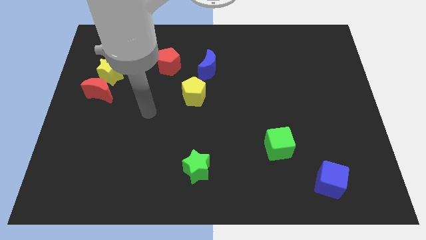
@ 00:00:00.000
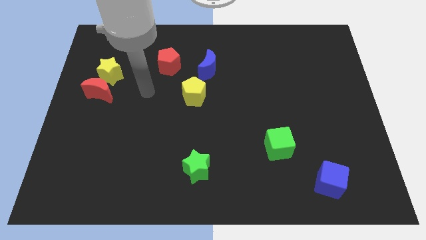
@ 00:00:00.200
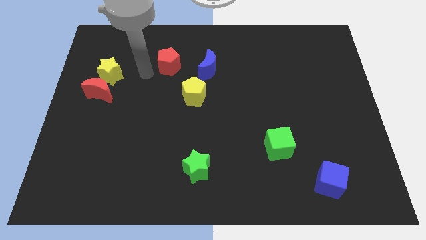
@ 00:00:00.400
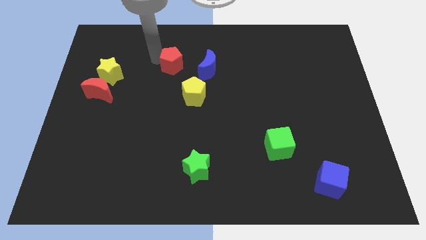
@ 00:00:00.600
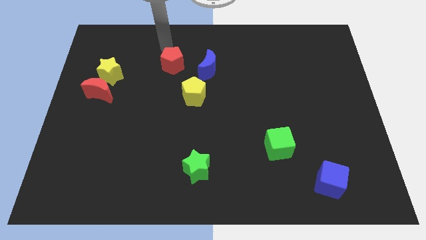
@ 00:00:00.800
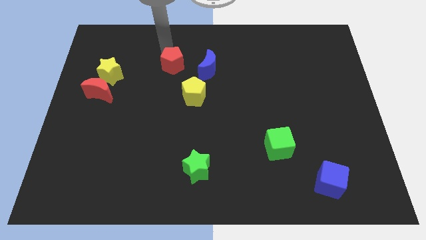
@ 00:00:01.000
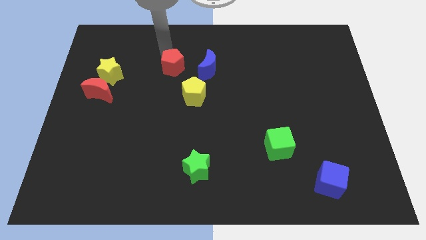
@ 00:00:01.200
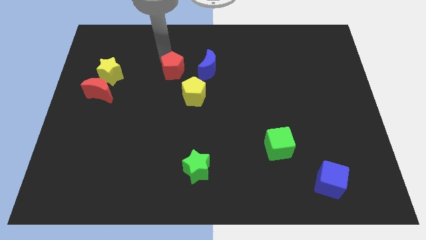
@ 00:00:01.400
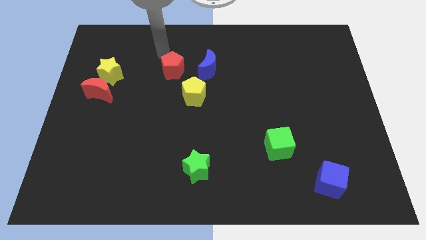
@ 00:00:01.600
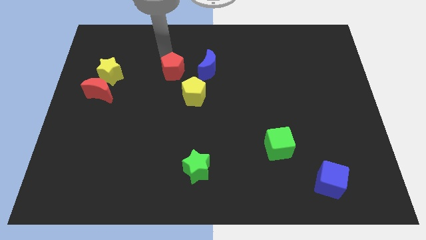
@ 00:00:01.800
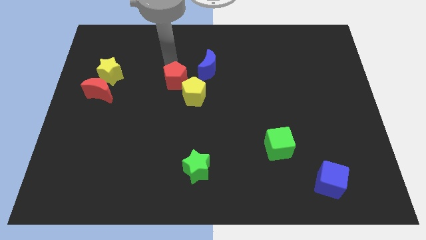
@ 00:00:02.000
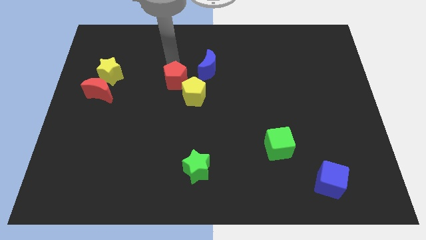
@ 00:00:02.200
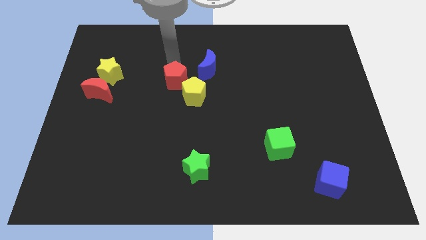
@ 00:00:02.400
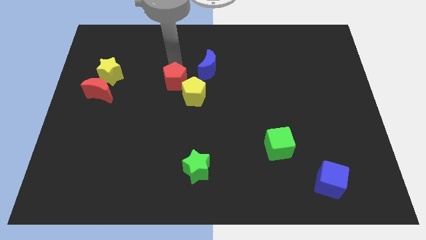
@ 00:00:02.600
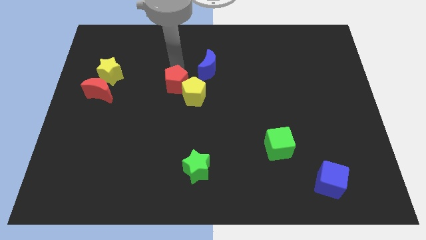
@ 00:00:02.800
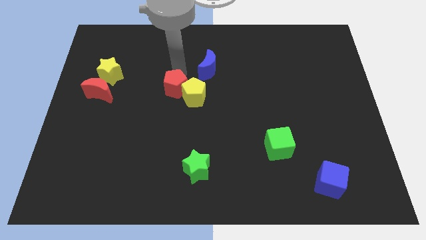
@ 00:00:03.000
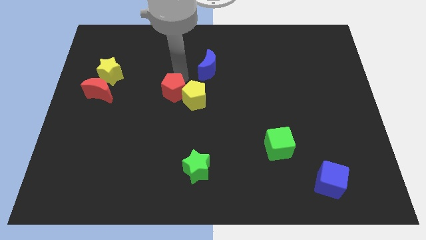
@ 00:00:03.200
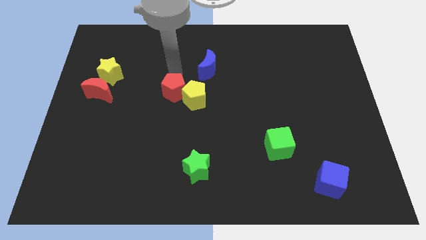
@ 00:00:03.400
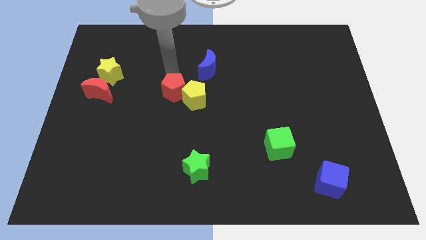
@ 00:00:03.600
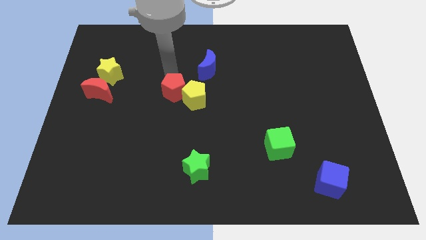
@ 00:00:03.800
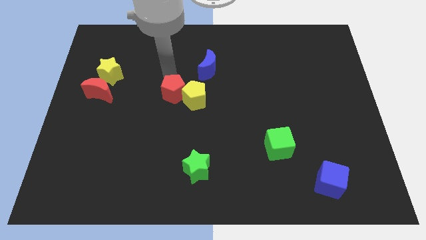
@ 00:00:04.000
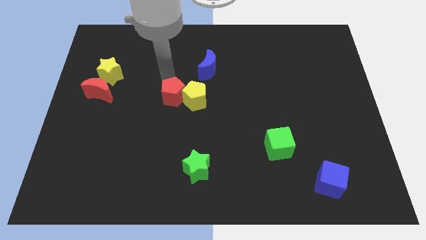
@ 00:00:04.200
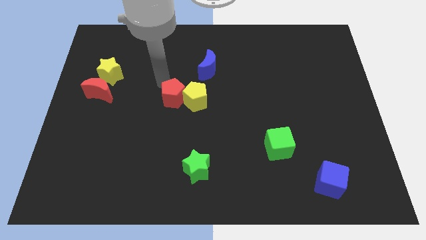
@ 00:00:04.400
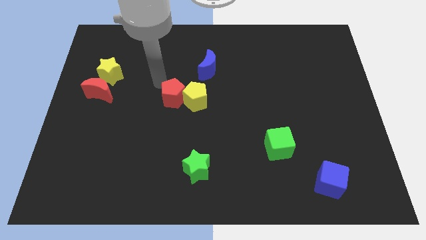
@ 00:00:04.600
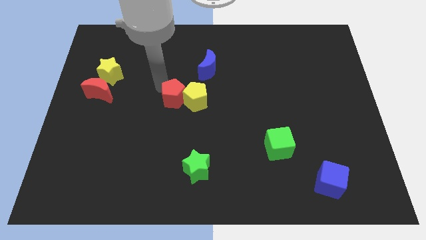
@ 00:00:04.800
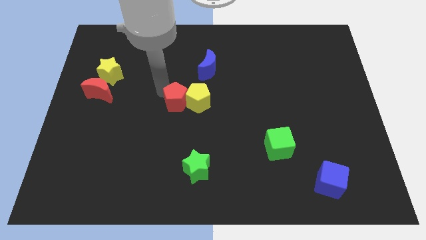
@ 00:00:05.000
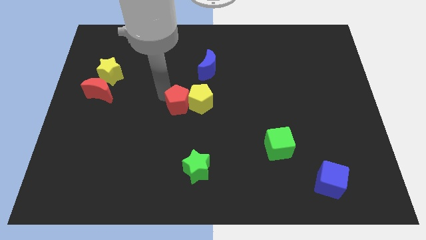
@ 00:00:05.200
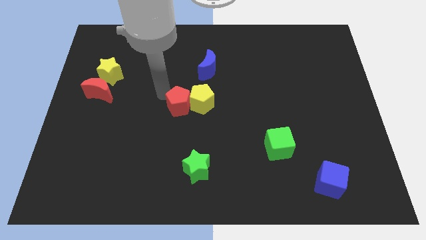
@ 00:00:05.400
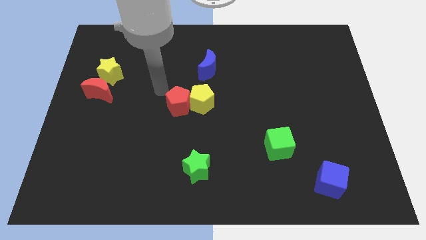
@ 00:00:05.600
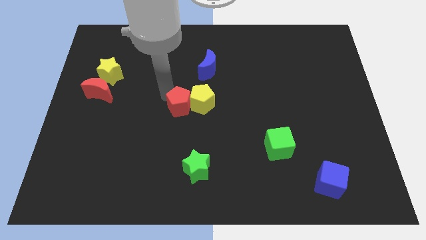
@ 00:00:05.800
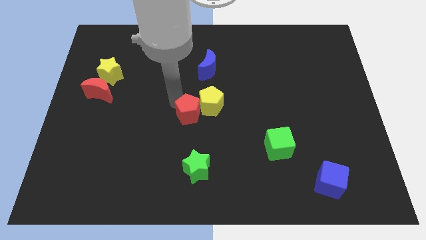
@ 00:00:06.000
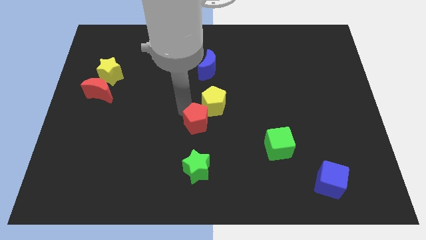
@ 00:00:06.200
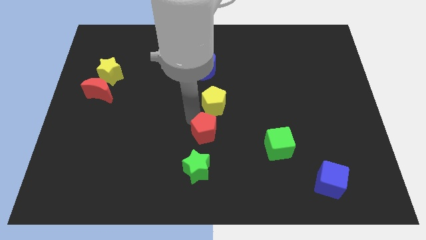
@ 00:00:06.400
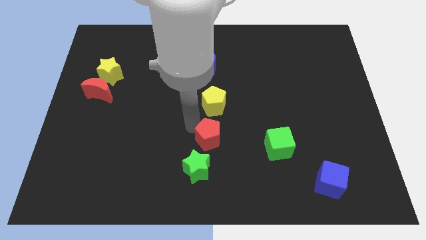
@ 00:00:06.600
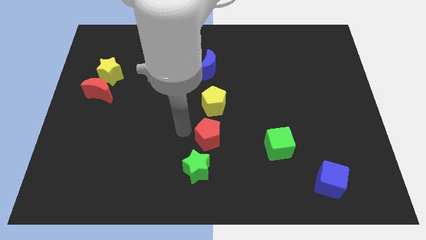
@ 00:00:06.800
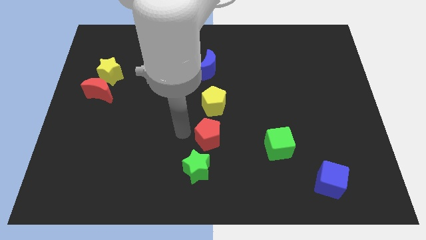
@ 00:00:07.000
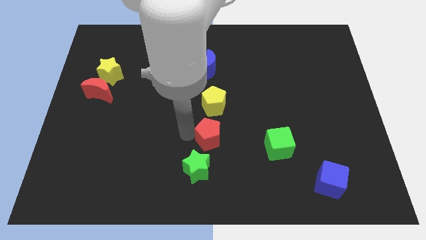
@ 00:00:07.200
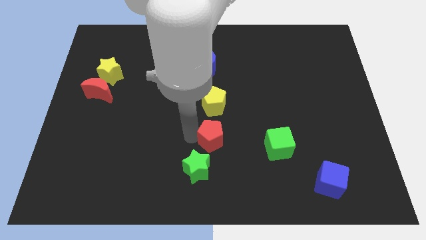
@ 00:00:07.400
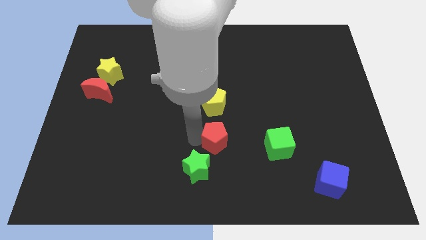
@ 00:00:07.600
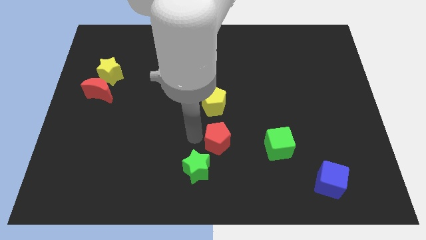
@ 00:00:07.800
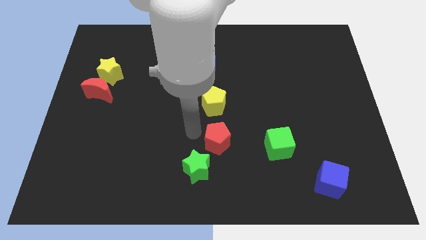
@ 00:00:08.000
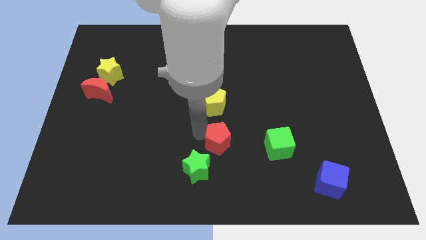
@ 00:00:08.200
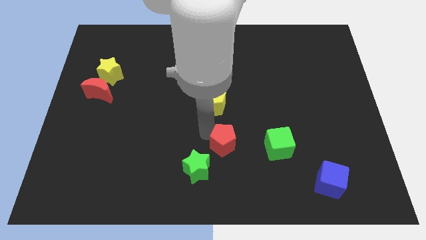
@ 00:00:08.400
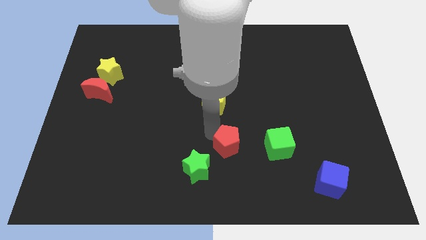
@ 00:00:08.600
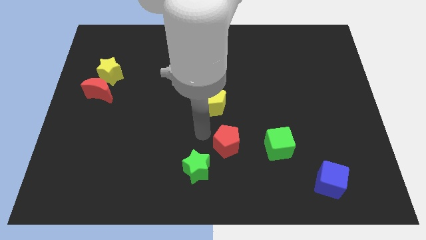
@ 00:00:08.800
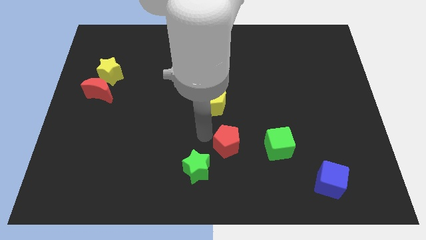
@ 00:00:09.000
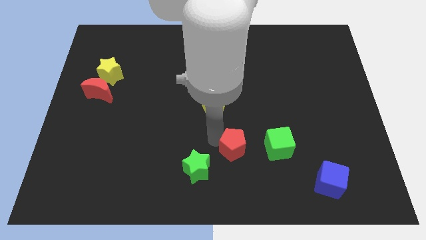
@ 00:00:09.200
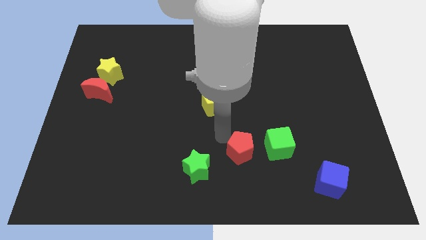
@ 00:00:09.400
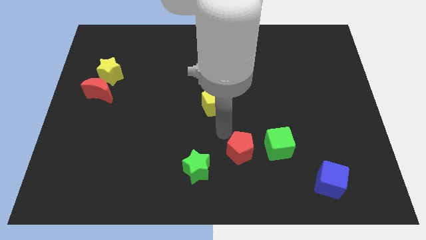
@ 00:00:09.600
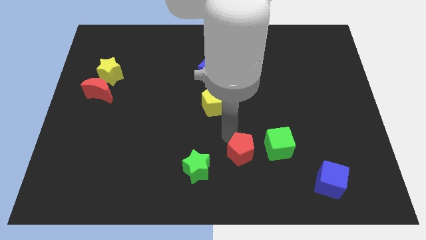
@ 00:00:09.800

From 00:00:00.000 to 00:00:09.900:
slide the red pentagon diagonally down and to the left of the green cube

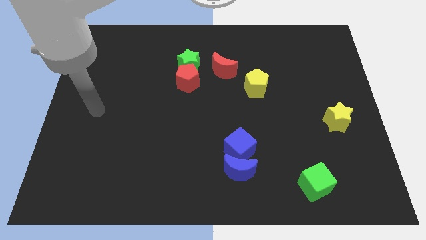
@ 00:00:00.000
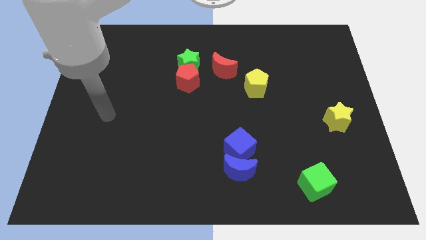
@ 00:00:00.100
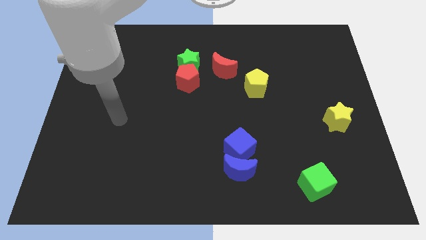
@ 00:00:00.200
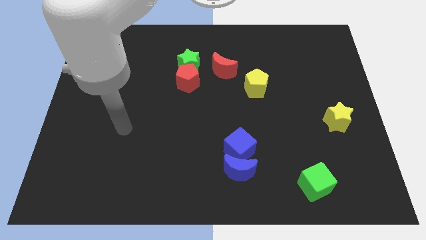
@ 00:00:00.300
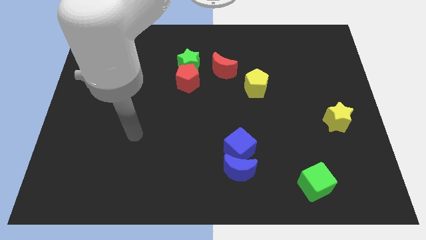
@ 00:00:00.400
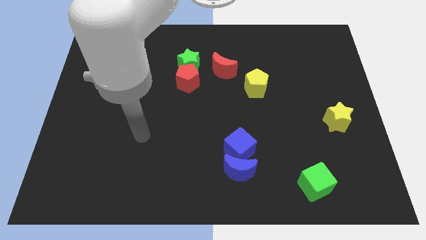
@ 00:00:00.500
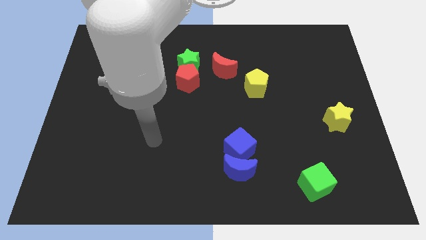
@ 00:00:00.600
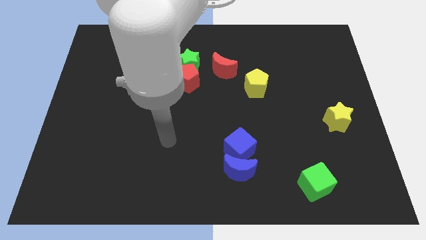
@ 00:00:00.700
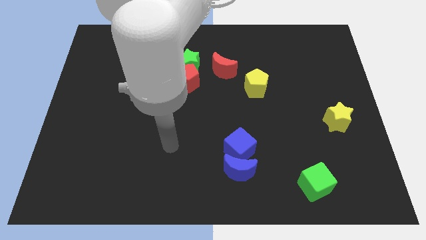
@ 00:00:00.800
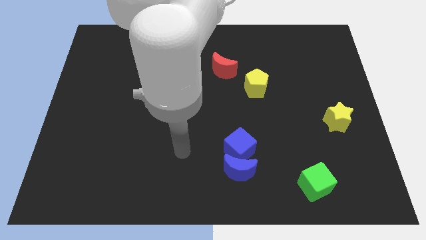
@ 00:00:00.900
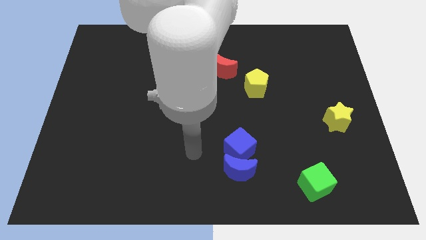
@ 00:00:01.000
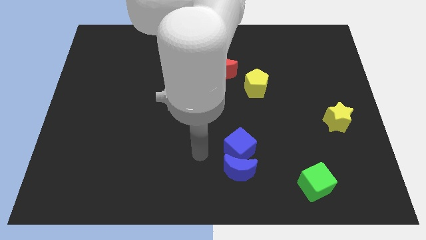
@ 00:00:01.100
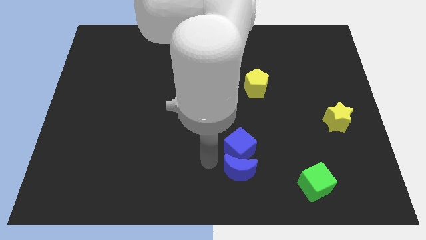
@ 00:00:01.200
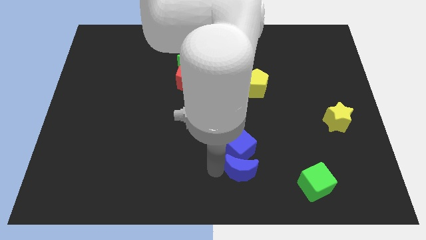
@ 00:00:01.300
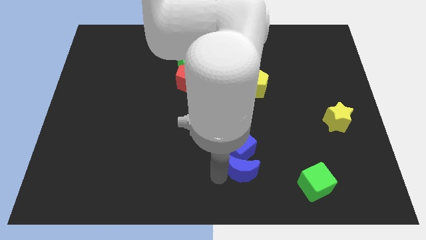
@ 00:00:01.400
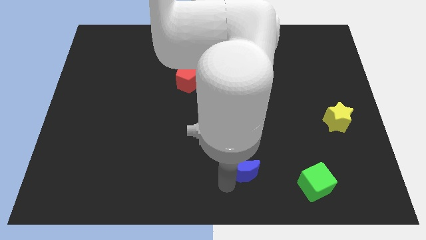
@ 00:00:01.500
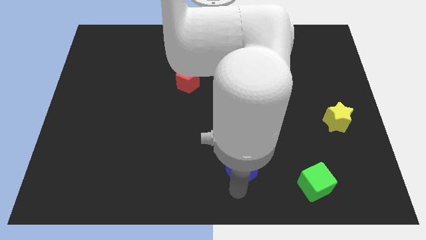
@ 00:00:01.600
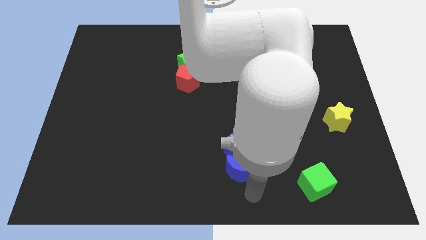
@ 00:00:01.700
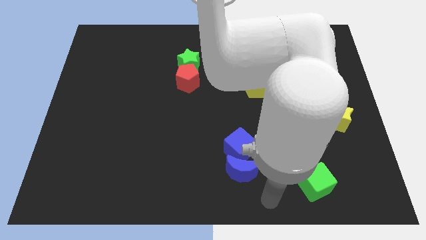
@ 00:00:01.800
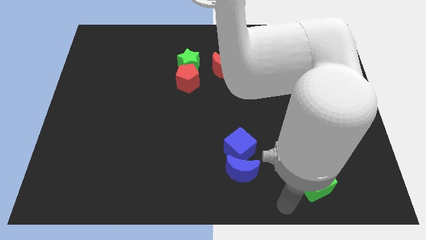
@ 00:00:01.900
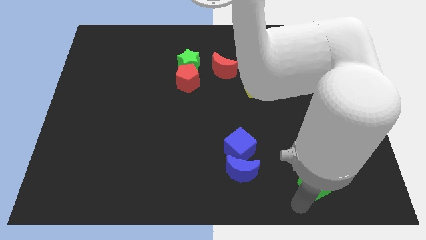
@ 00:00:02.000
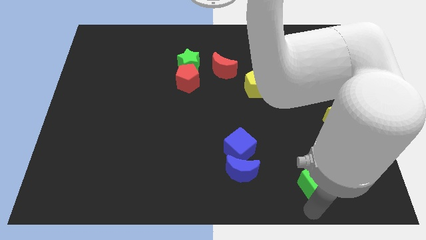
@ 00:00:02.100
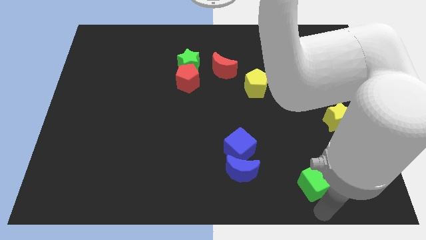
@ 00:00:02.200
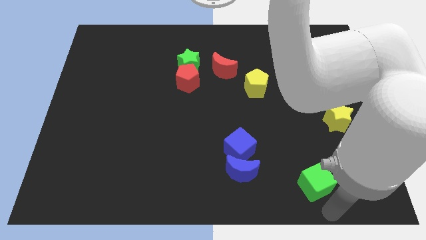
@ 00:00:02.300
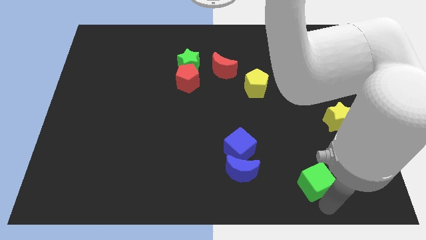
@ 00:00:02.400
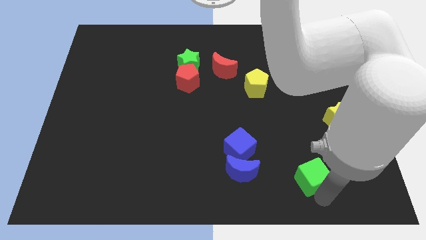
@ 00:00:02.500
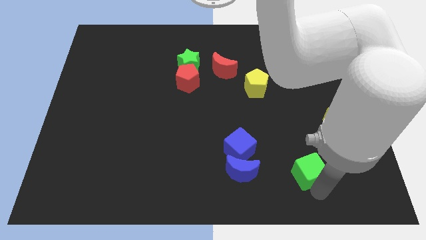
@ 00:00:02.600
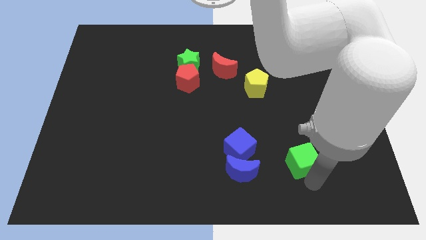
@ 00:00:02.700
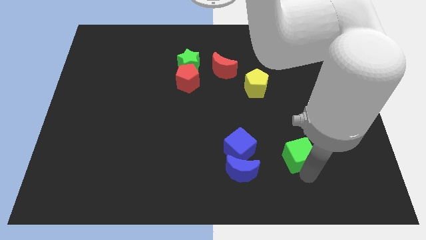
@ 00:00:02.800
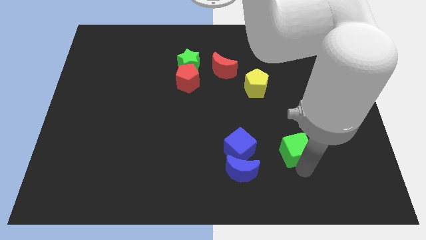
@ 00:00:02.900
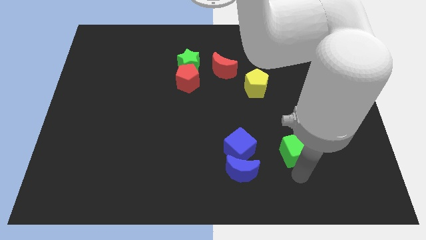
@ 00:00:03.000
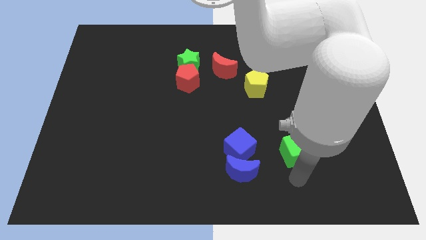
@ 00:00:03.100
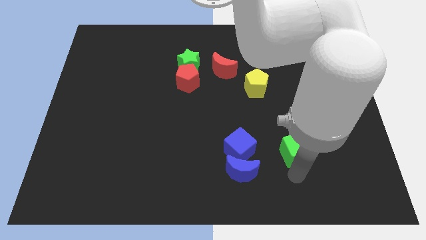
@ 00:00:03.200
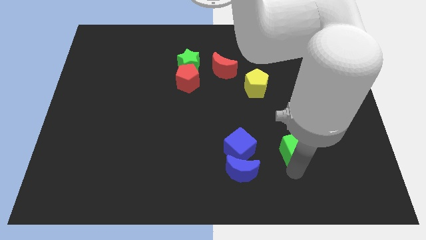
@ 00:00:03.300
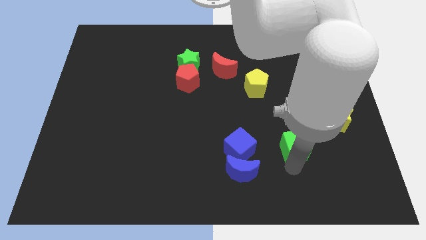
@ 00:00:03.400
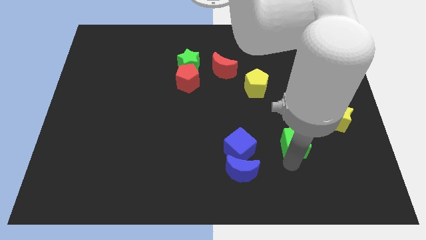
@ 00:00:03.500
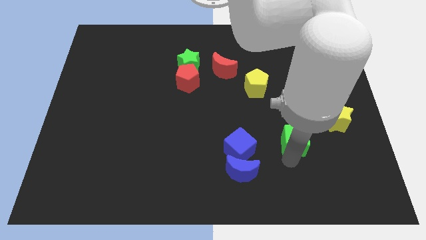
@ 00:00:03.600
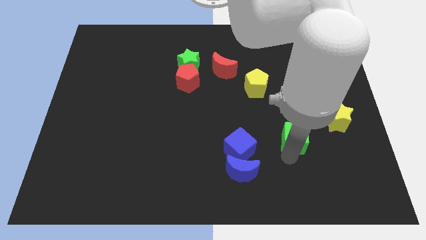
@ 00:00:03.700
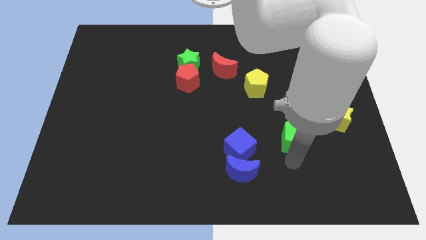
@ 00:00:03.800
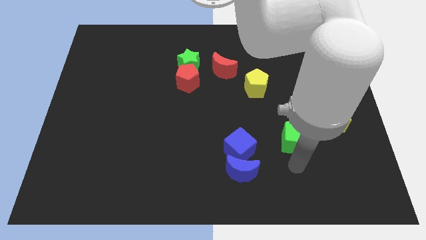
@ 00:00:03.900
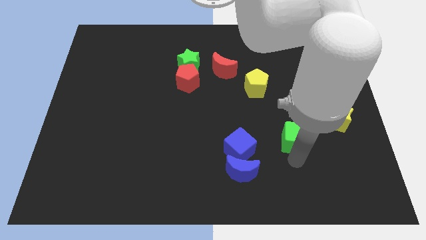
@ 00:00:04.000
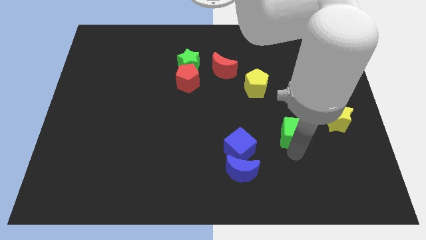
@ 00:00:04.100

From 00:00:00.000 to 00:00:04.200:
slide the green cube just left of the yellow star
